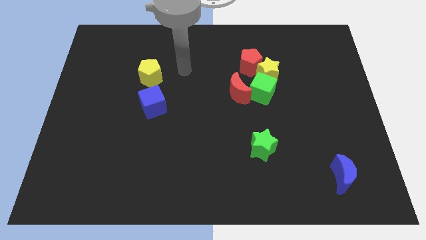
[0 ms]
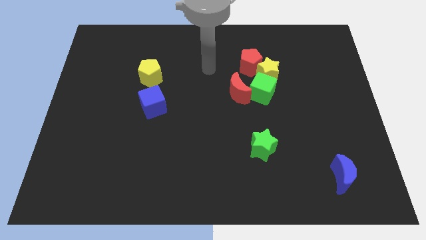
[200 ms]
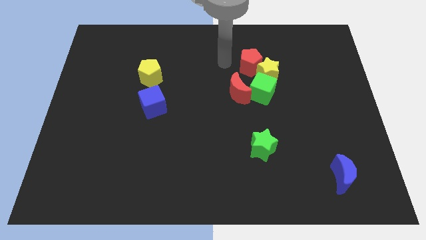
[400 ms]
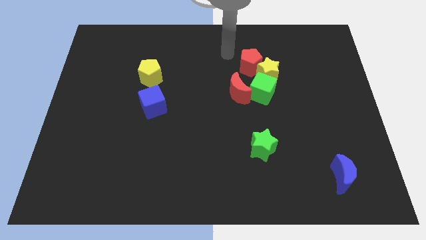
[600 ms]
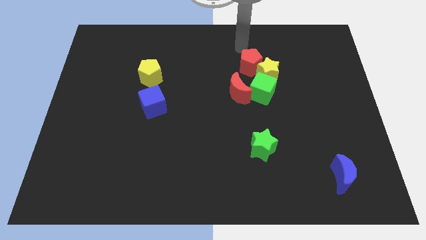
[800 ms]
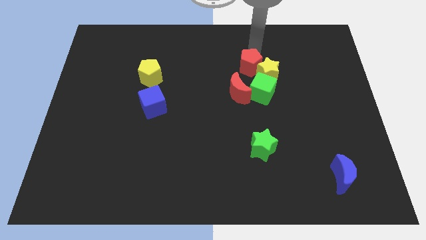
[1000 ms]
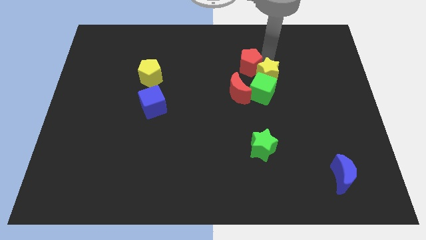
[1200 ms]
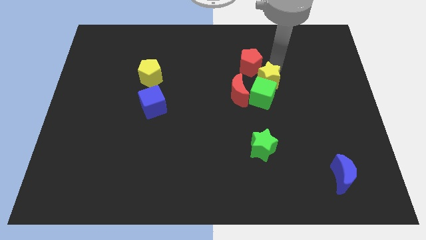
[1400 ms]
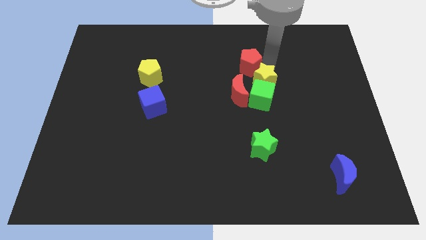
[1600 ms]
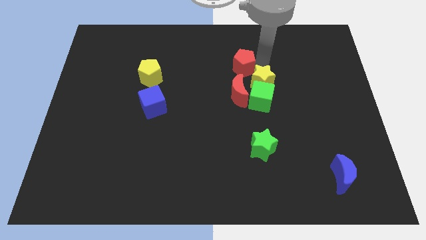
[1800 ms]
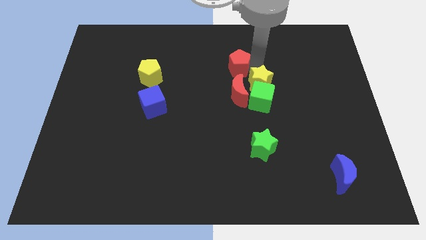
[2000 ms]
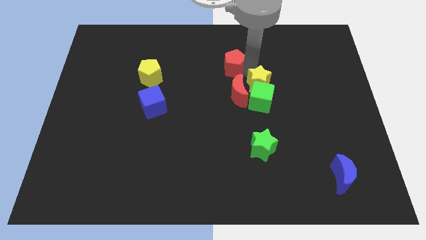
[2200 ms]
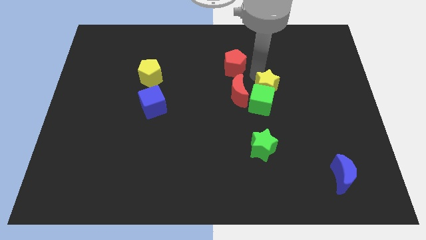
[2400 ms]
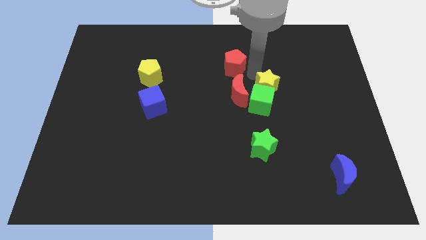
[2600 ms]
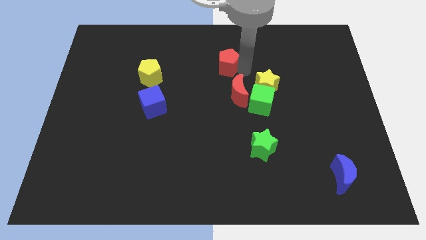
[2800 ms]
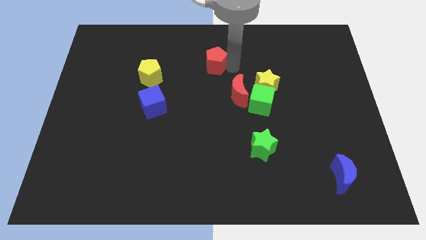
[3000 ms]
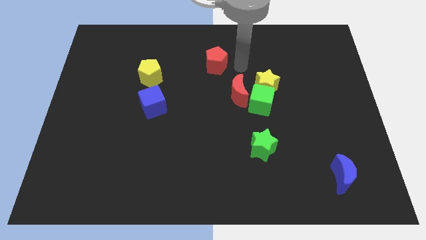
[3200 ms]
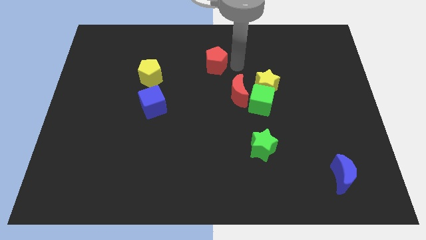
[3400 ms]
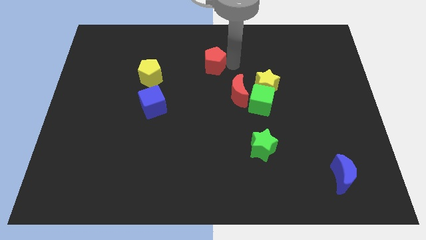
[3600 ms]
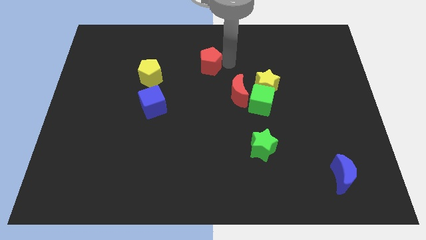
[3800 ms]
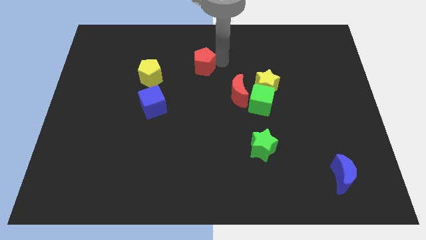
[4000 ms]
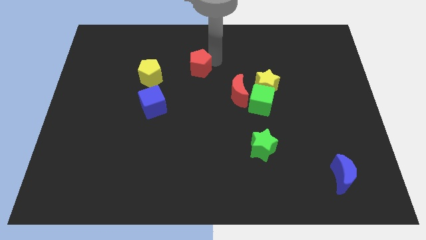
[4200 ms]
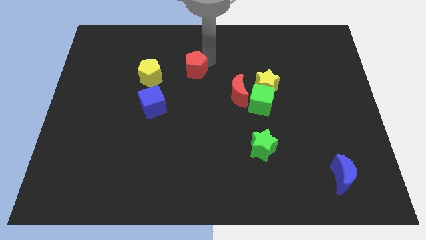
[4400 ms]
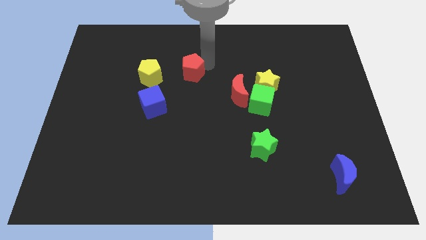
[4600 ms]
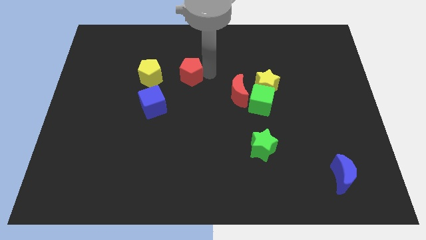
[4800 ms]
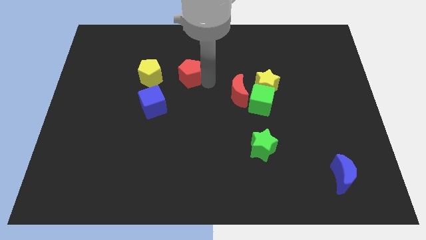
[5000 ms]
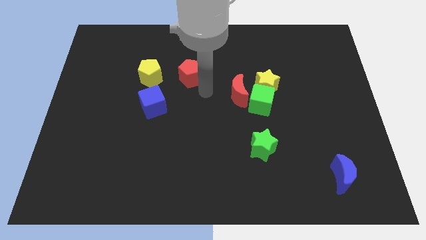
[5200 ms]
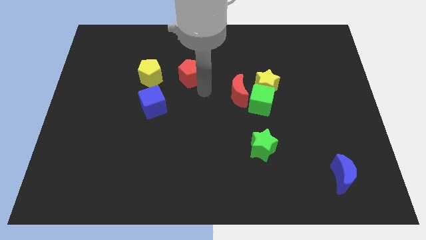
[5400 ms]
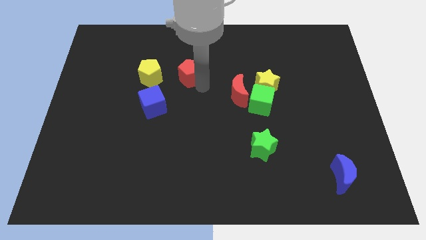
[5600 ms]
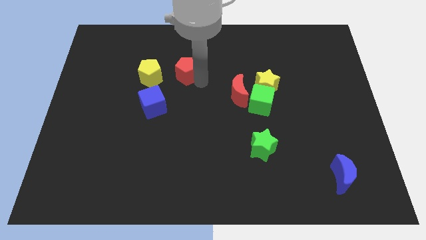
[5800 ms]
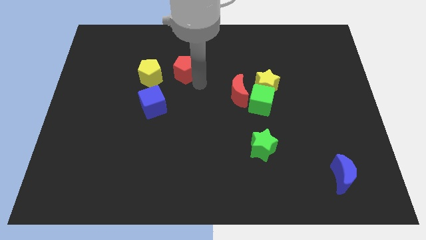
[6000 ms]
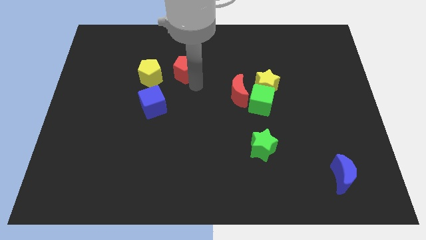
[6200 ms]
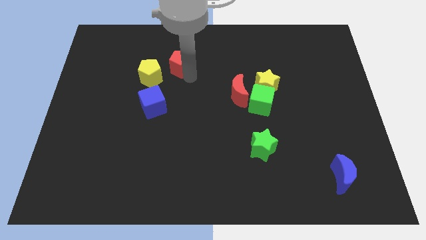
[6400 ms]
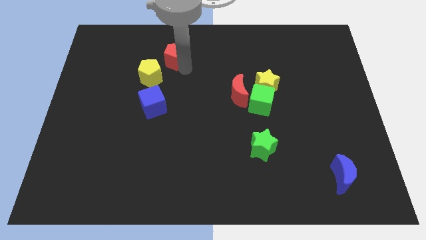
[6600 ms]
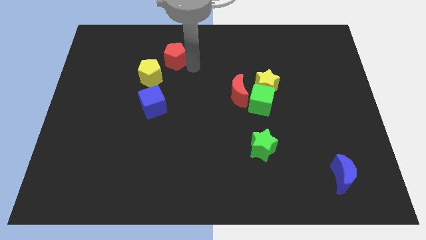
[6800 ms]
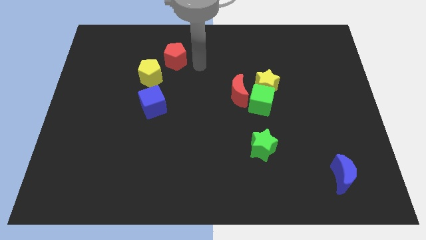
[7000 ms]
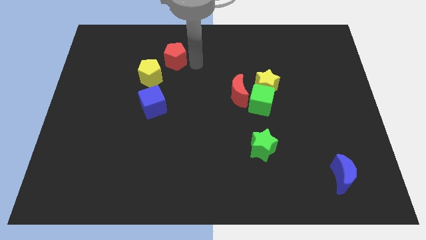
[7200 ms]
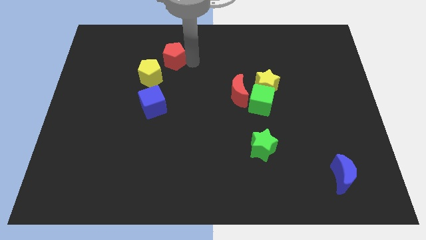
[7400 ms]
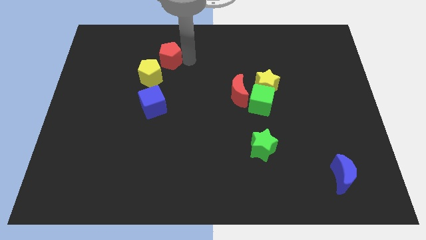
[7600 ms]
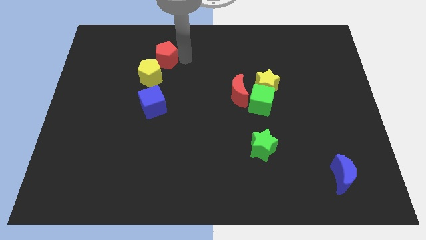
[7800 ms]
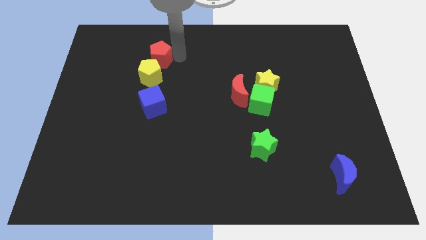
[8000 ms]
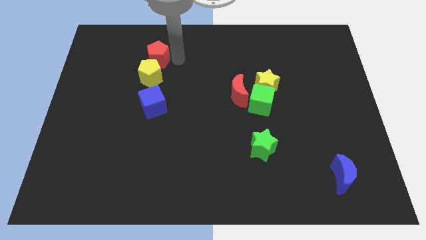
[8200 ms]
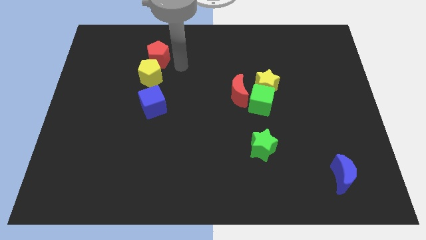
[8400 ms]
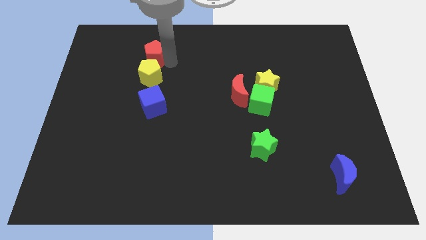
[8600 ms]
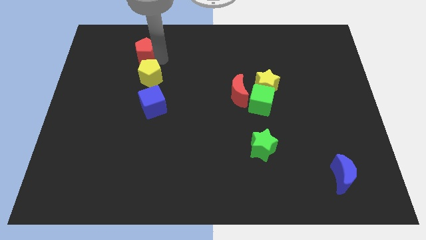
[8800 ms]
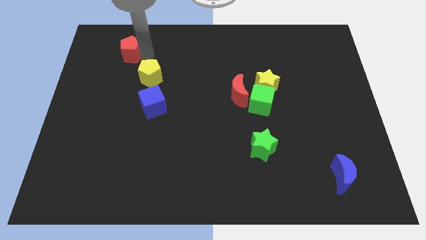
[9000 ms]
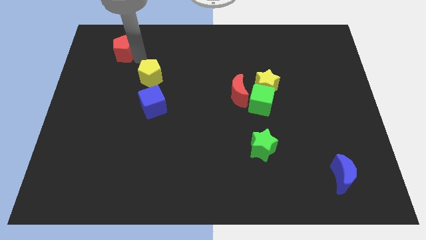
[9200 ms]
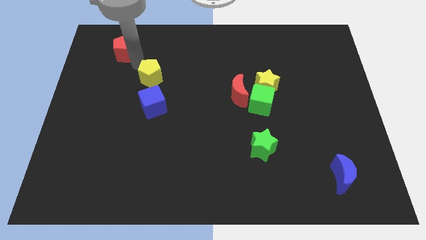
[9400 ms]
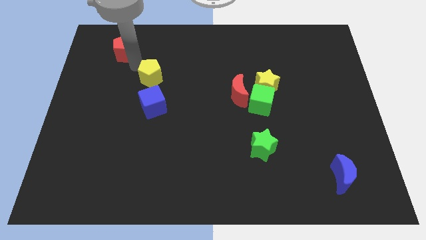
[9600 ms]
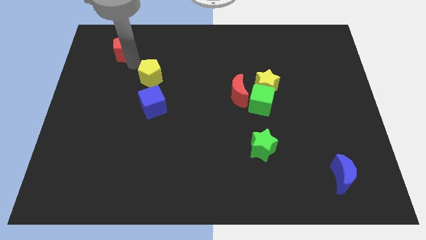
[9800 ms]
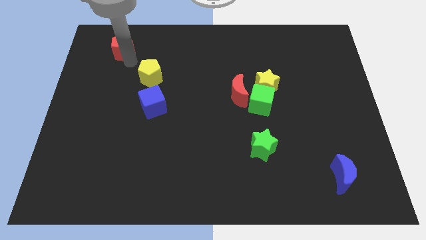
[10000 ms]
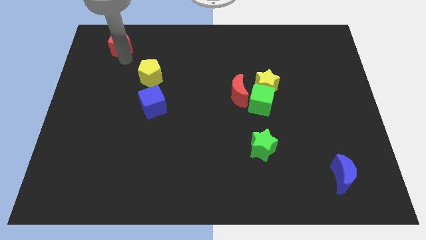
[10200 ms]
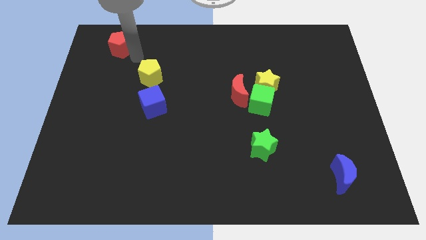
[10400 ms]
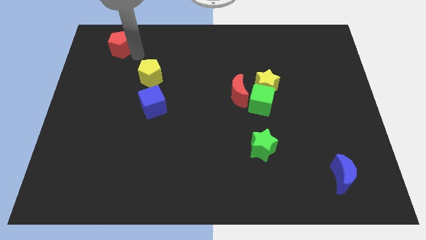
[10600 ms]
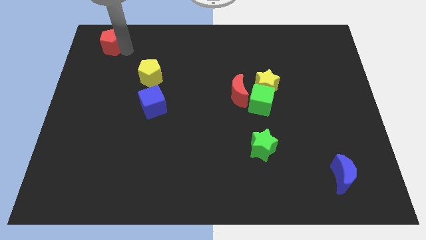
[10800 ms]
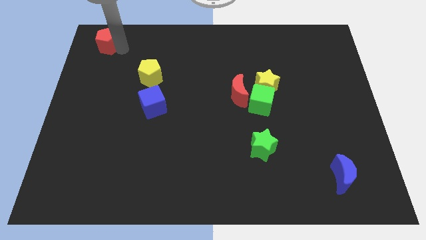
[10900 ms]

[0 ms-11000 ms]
push the red pentagon to the top left corner

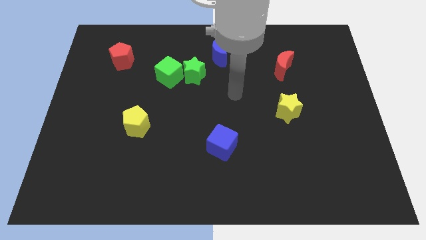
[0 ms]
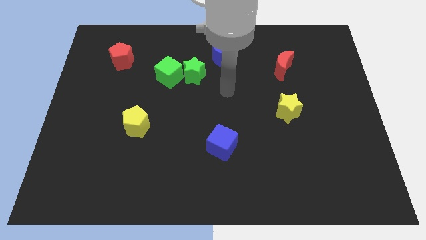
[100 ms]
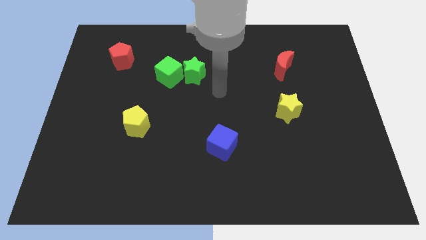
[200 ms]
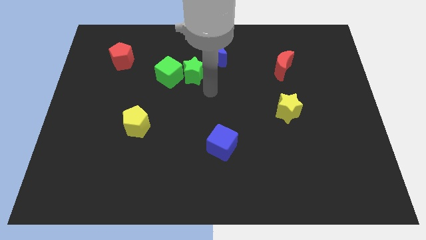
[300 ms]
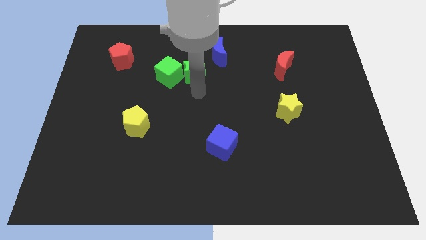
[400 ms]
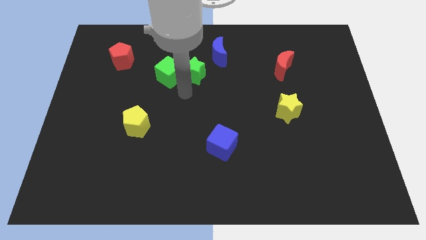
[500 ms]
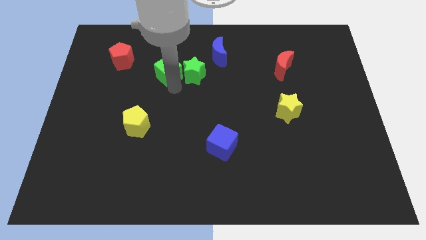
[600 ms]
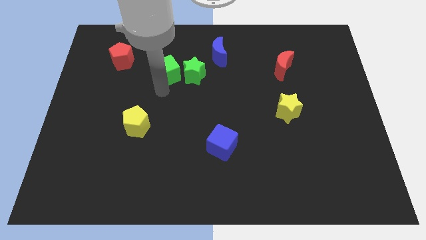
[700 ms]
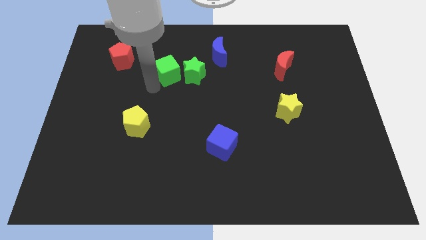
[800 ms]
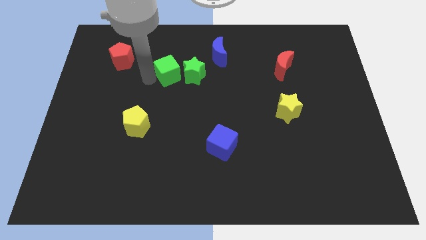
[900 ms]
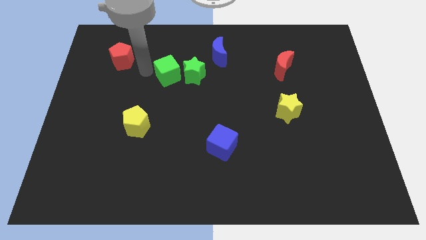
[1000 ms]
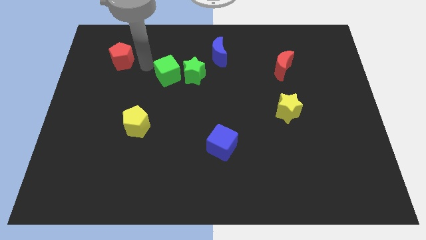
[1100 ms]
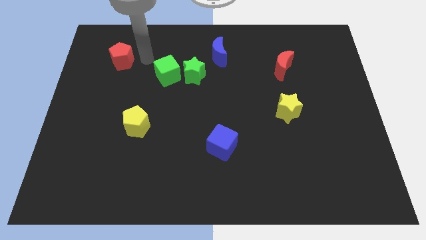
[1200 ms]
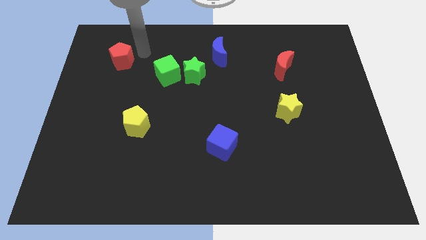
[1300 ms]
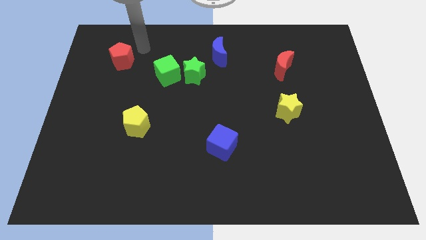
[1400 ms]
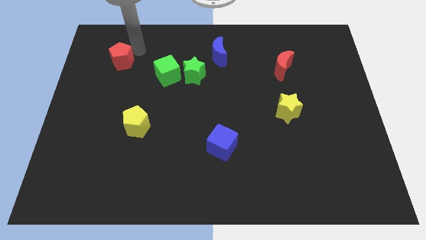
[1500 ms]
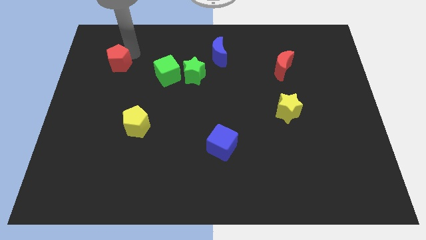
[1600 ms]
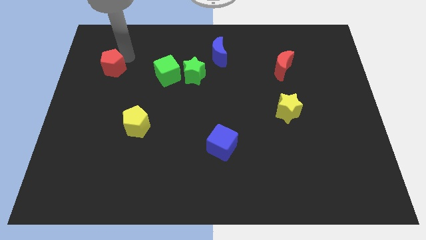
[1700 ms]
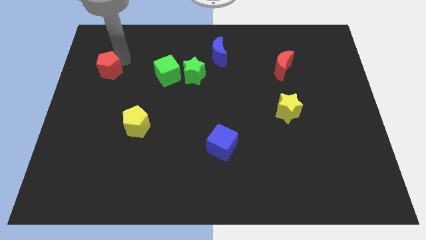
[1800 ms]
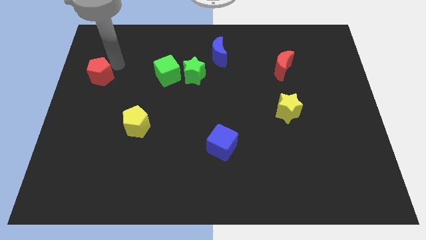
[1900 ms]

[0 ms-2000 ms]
push the red pentagon to the left side of the board
